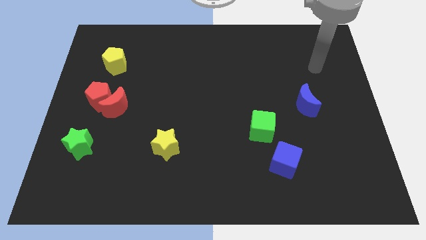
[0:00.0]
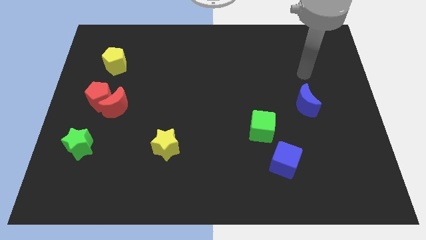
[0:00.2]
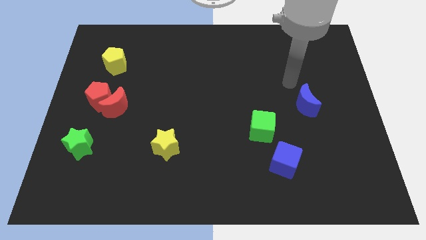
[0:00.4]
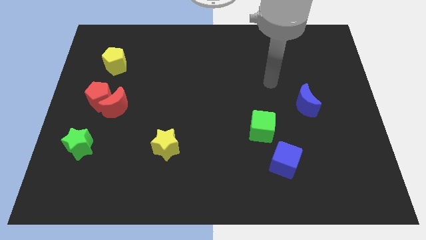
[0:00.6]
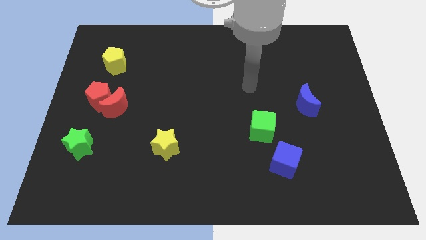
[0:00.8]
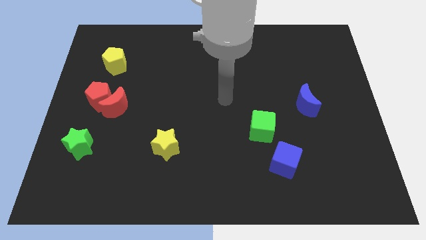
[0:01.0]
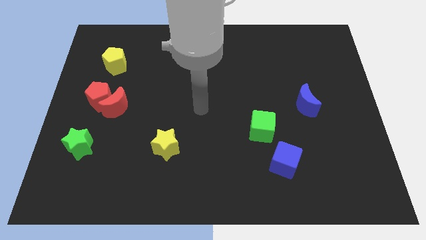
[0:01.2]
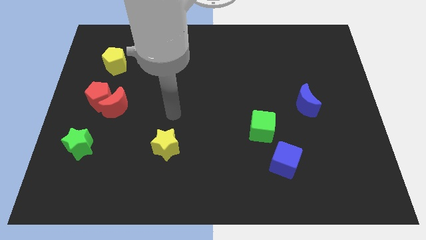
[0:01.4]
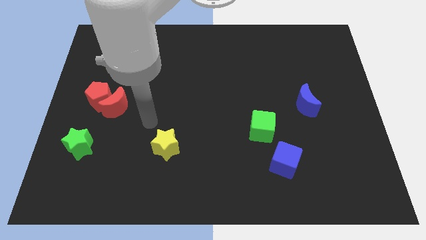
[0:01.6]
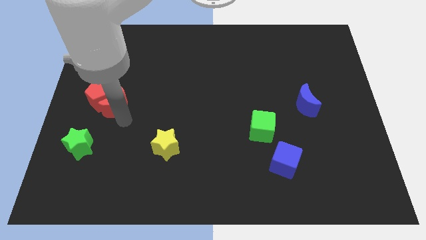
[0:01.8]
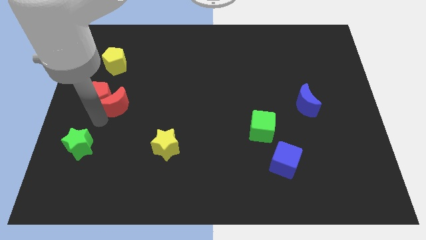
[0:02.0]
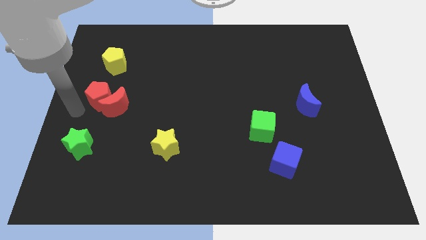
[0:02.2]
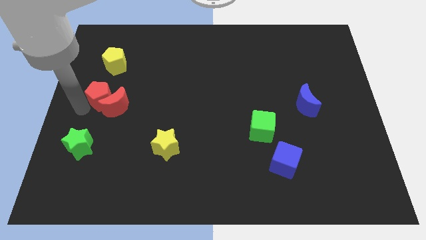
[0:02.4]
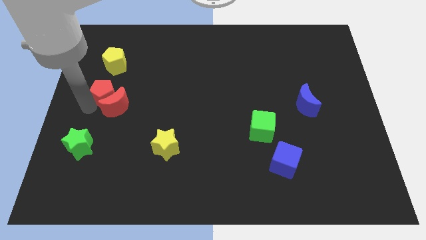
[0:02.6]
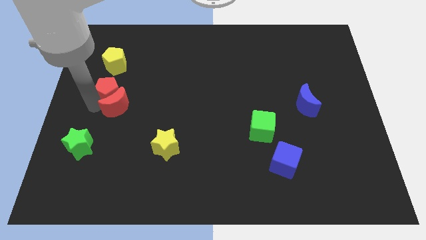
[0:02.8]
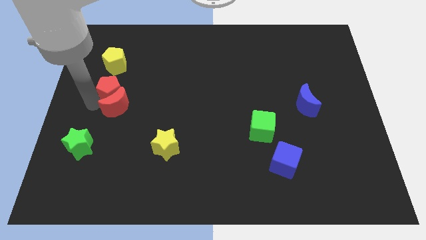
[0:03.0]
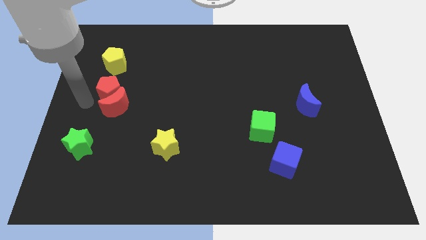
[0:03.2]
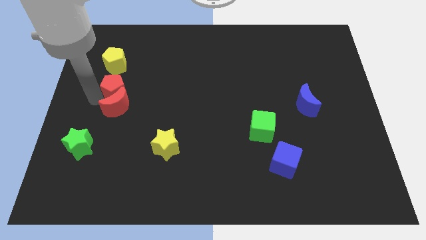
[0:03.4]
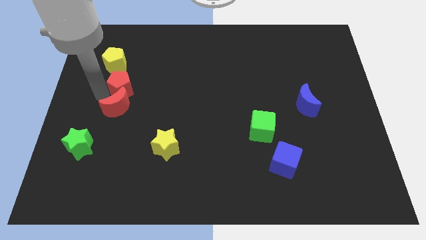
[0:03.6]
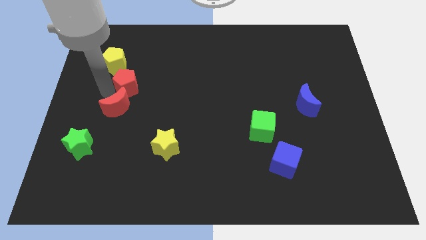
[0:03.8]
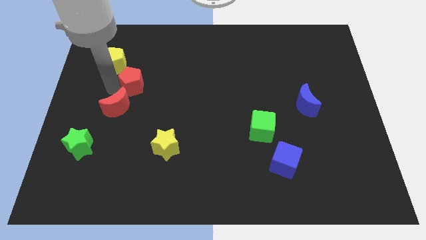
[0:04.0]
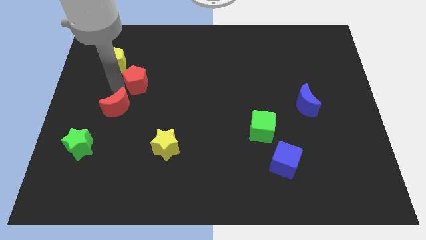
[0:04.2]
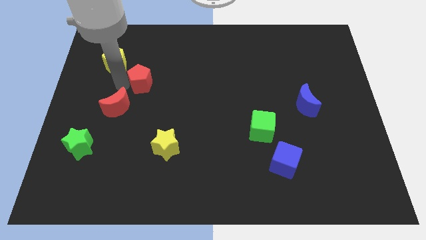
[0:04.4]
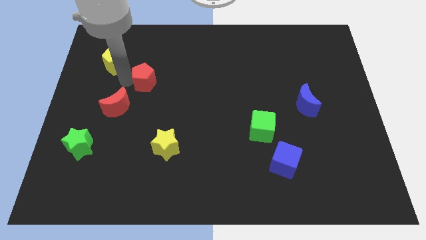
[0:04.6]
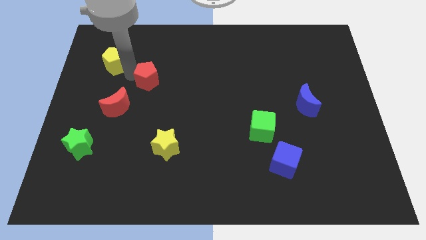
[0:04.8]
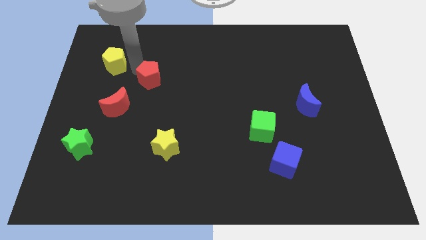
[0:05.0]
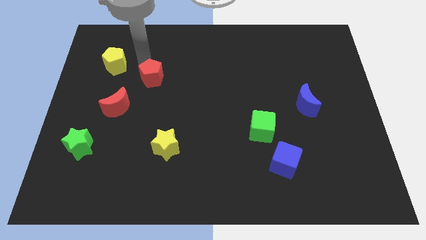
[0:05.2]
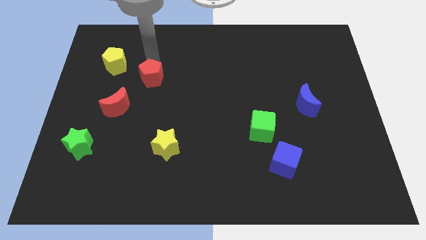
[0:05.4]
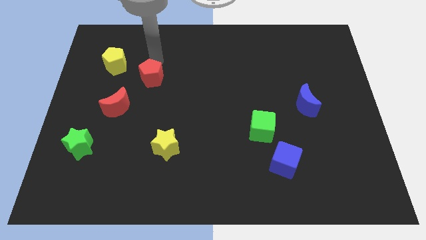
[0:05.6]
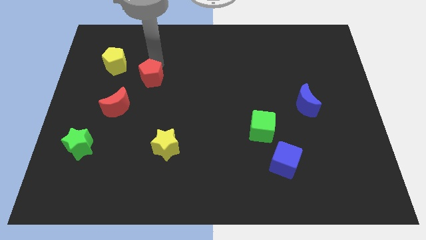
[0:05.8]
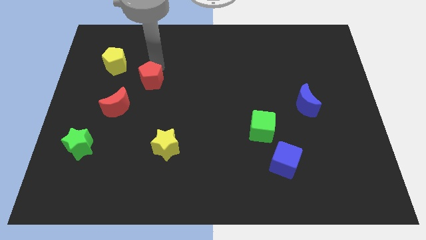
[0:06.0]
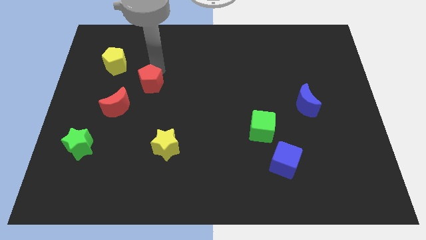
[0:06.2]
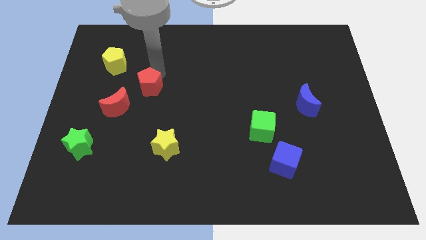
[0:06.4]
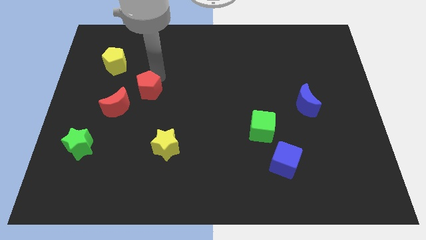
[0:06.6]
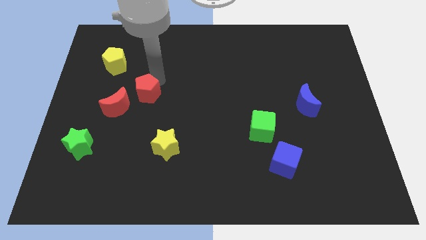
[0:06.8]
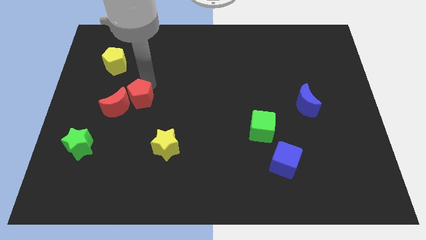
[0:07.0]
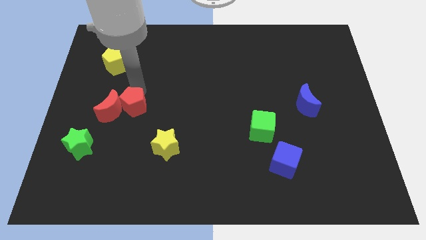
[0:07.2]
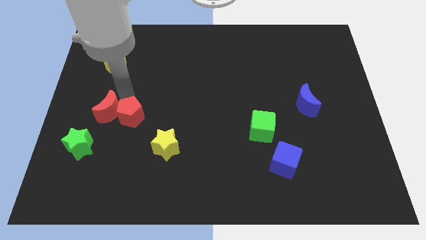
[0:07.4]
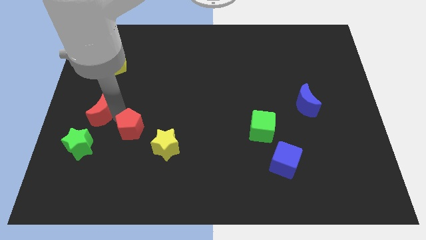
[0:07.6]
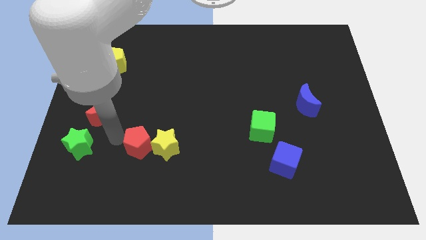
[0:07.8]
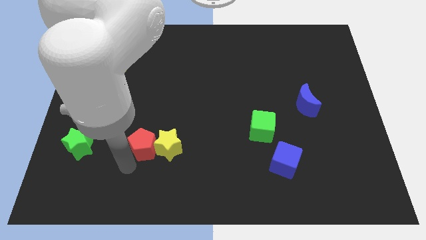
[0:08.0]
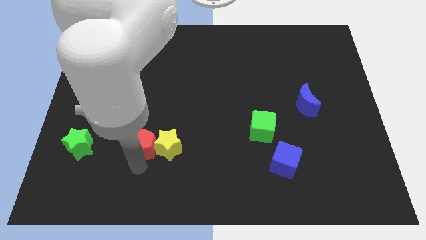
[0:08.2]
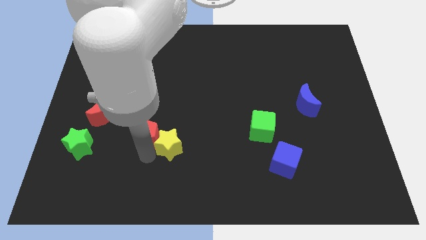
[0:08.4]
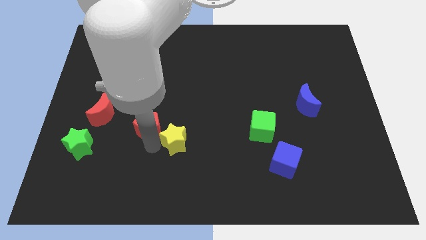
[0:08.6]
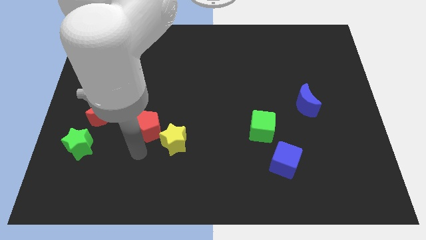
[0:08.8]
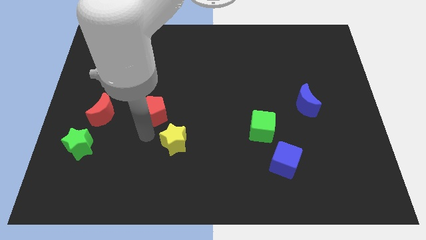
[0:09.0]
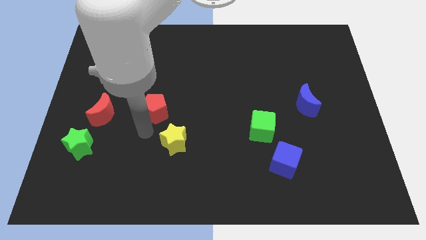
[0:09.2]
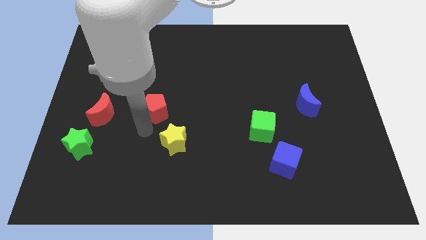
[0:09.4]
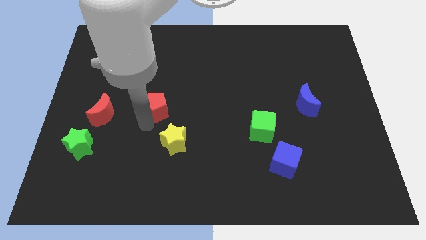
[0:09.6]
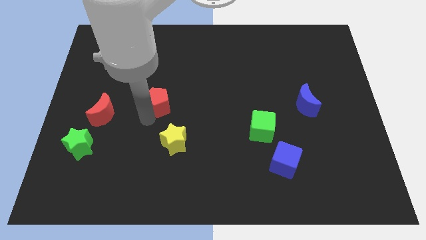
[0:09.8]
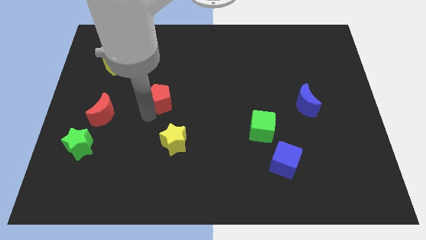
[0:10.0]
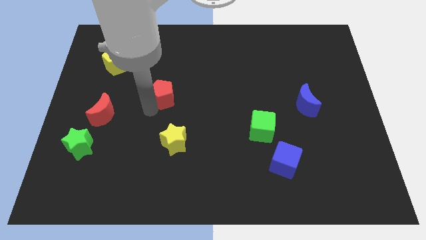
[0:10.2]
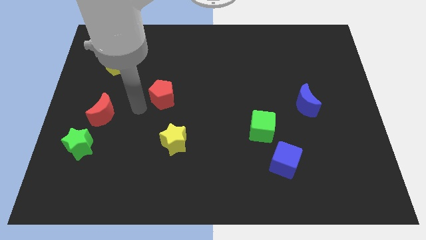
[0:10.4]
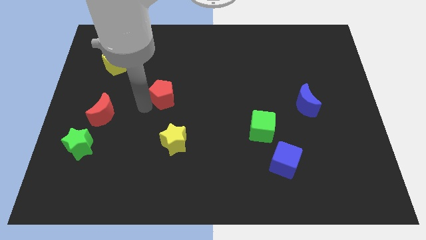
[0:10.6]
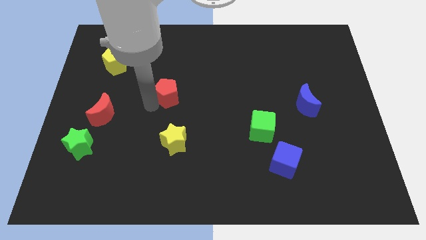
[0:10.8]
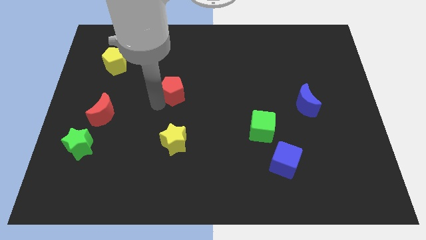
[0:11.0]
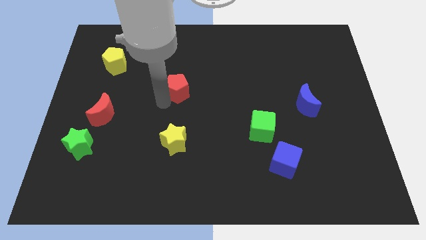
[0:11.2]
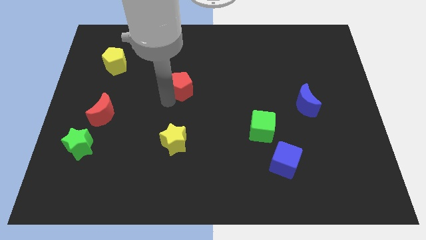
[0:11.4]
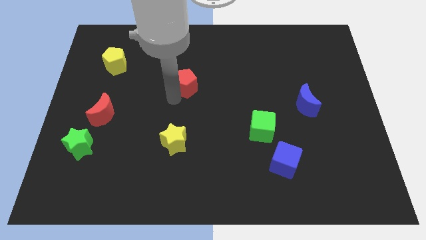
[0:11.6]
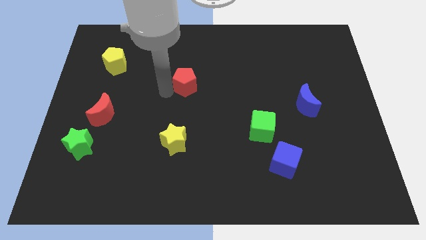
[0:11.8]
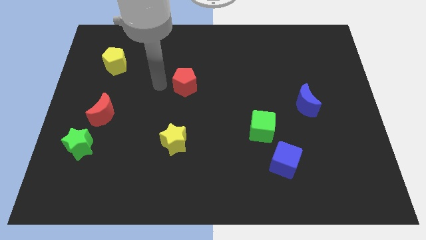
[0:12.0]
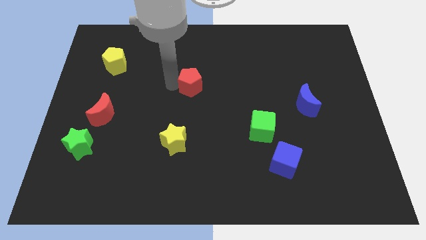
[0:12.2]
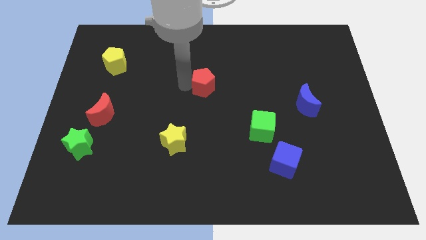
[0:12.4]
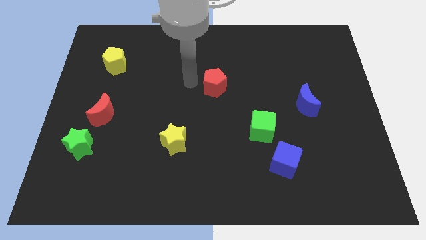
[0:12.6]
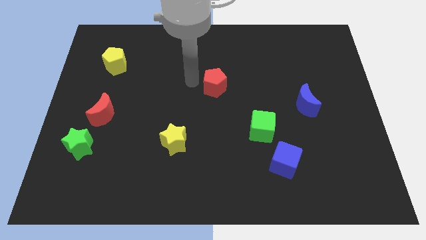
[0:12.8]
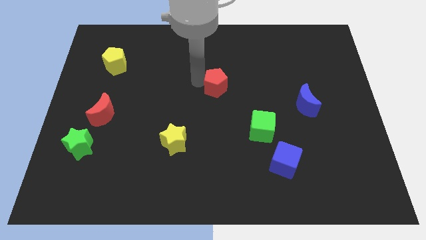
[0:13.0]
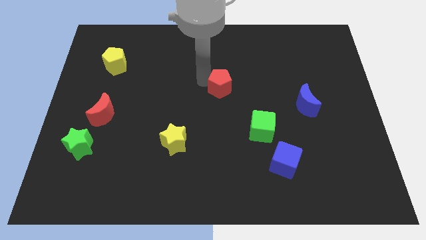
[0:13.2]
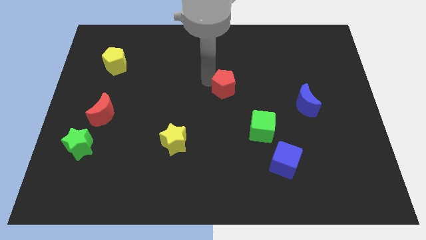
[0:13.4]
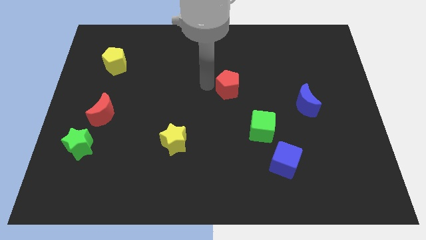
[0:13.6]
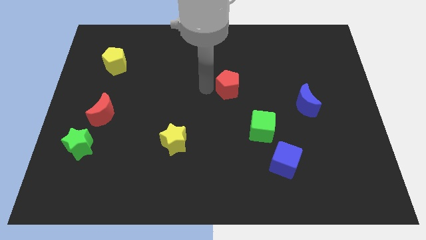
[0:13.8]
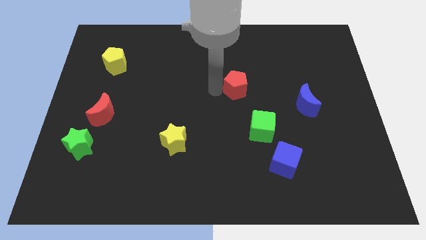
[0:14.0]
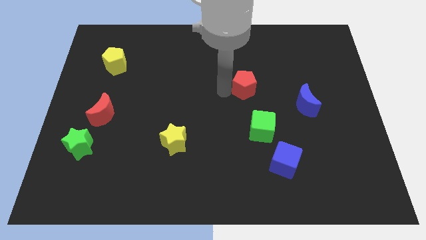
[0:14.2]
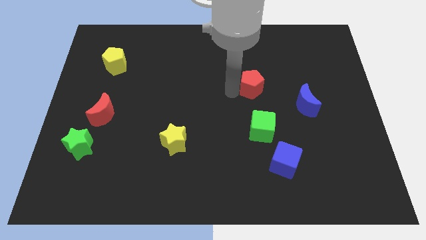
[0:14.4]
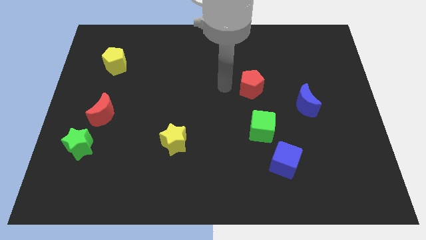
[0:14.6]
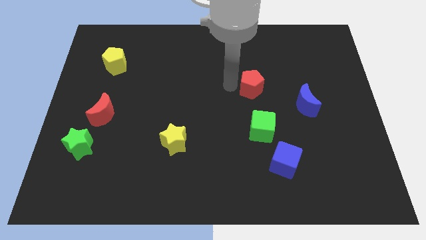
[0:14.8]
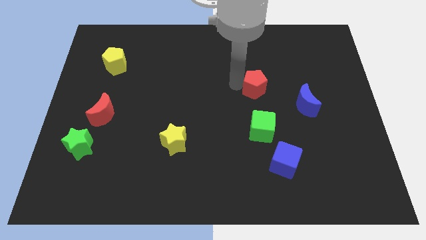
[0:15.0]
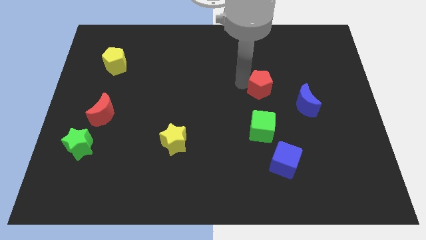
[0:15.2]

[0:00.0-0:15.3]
put the red pentagon to the top left of the blue moon
